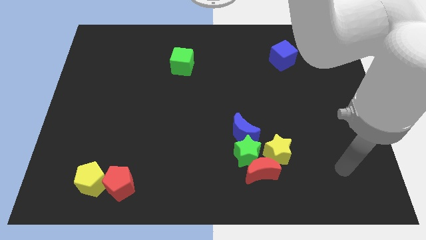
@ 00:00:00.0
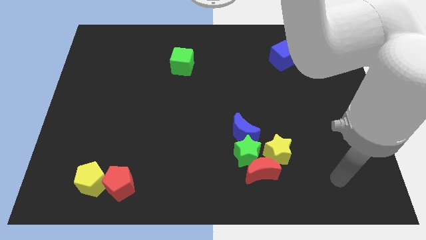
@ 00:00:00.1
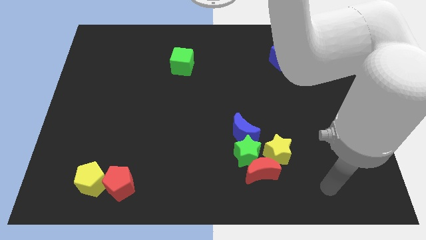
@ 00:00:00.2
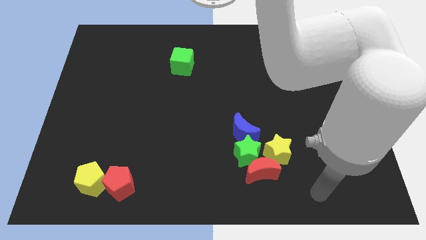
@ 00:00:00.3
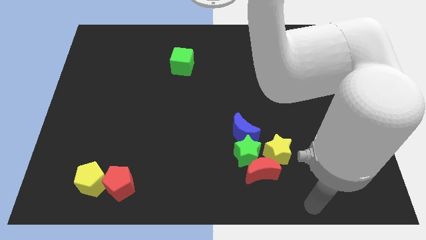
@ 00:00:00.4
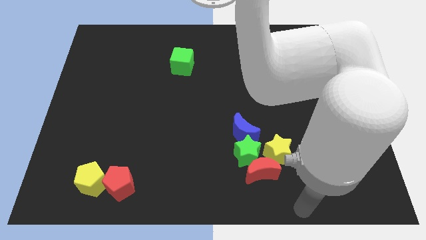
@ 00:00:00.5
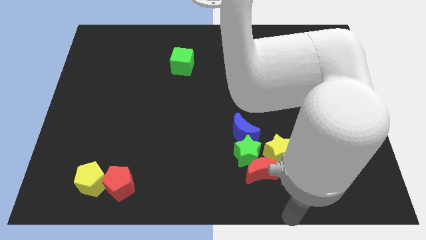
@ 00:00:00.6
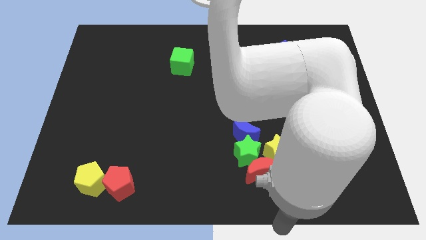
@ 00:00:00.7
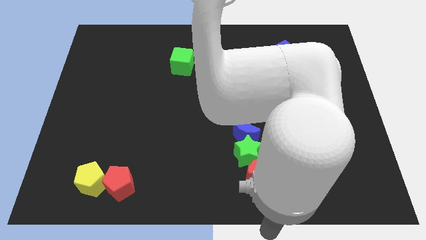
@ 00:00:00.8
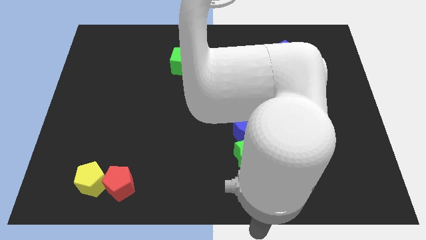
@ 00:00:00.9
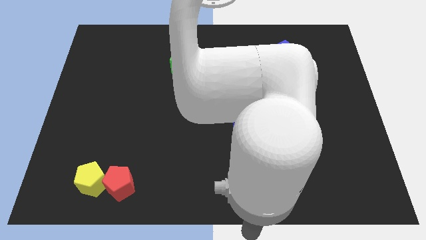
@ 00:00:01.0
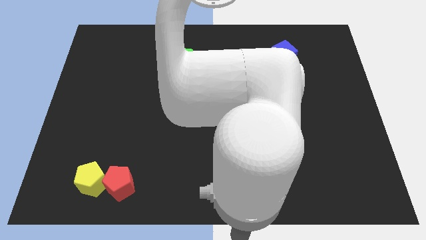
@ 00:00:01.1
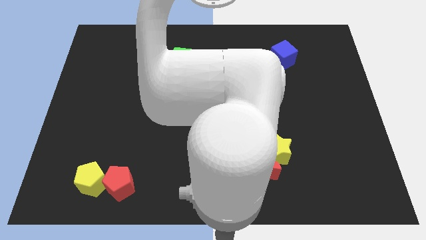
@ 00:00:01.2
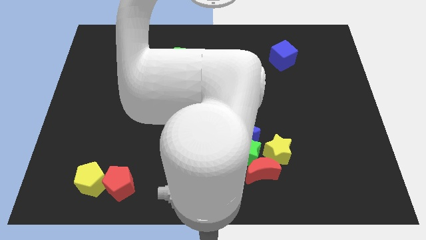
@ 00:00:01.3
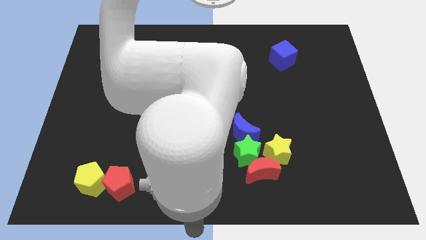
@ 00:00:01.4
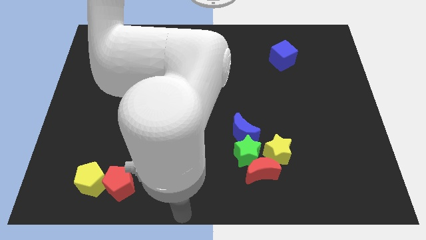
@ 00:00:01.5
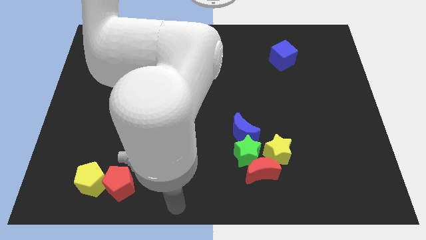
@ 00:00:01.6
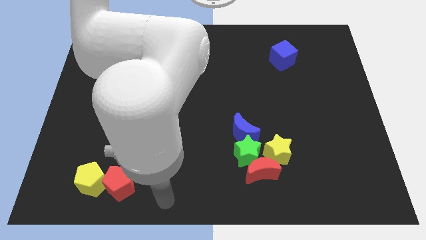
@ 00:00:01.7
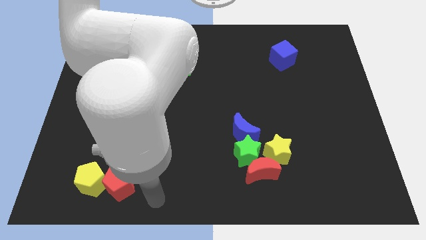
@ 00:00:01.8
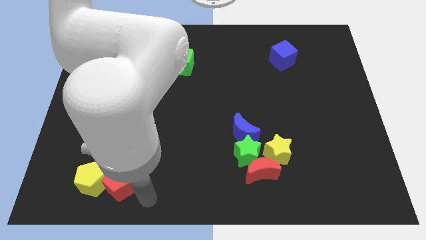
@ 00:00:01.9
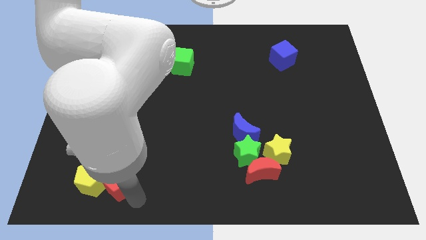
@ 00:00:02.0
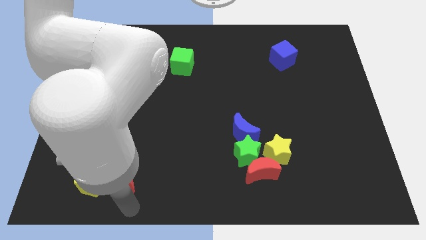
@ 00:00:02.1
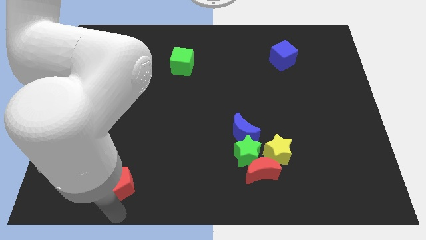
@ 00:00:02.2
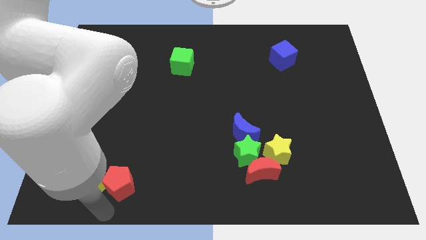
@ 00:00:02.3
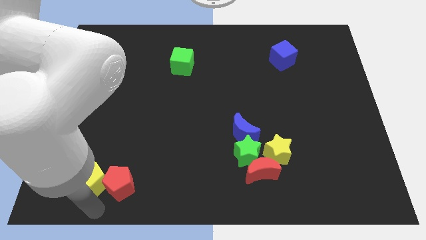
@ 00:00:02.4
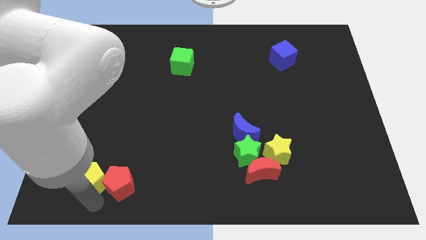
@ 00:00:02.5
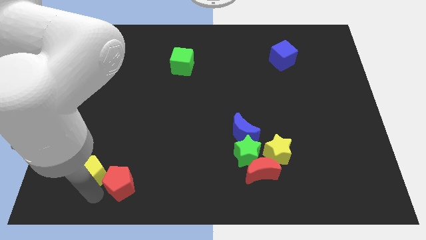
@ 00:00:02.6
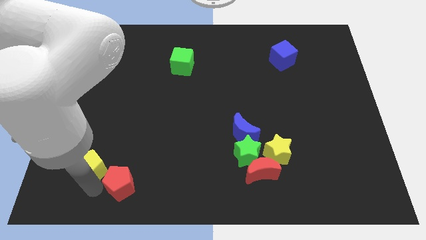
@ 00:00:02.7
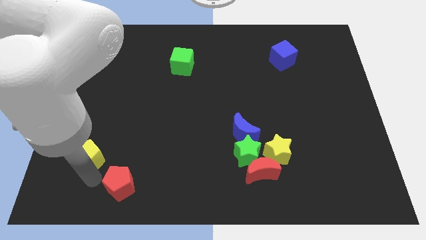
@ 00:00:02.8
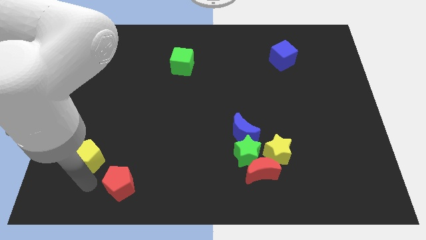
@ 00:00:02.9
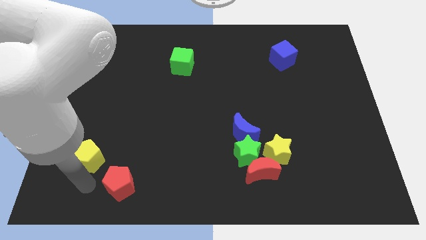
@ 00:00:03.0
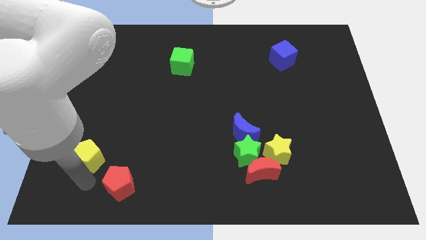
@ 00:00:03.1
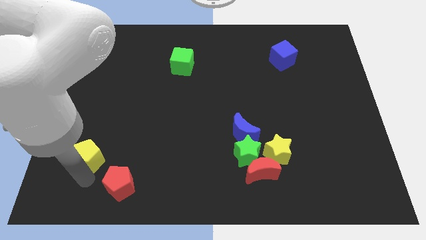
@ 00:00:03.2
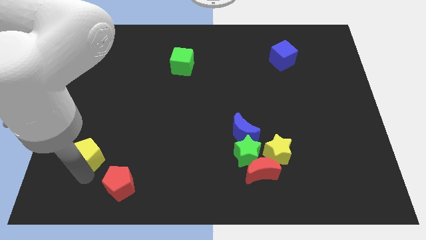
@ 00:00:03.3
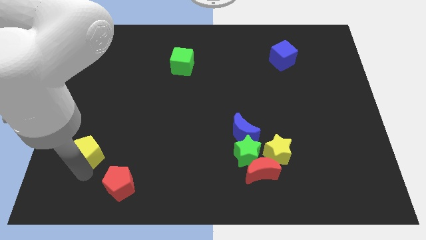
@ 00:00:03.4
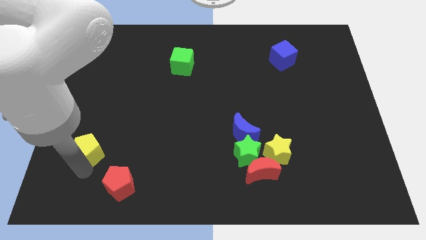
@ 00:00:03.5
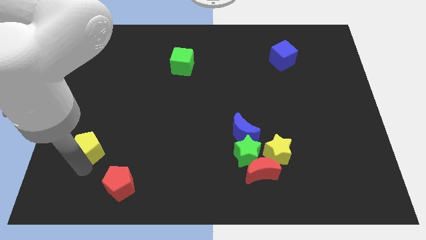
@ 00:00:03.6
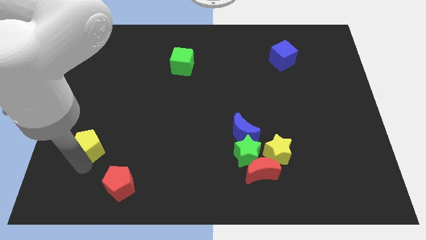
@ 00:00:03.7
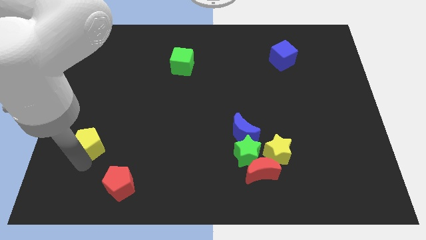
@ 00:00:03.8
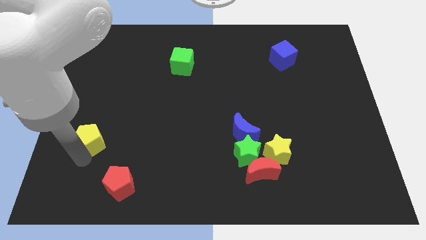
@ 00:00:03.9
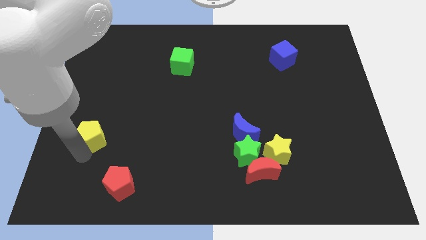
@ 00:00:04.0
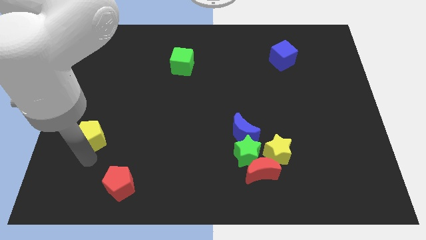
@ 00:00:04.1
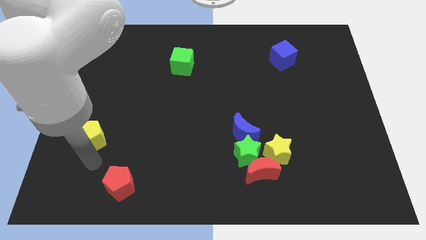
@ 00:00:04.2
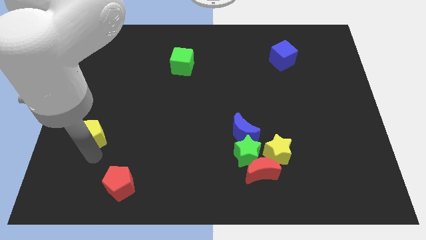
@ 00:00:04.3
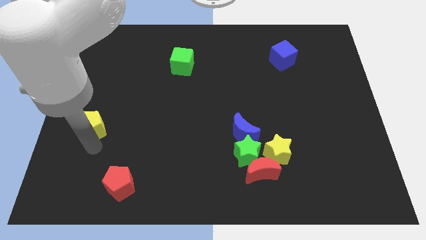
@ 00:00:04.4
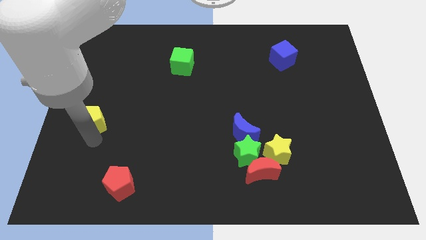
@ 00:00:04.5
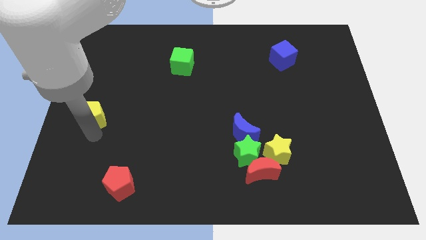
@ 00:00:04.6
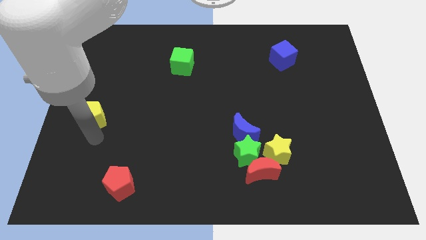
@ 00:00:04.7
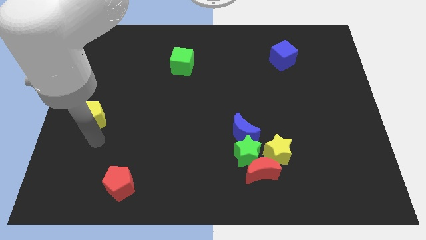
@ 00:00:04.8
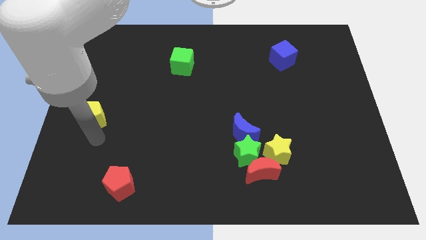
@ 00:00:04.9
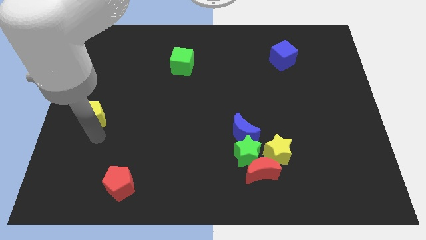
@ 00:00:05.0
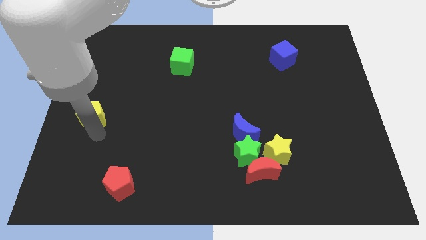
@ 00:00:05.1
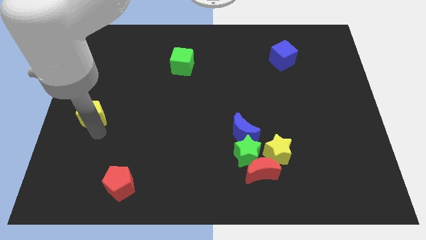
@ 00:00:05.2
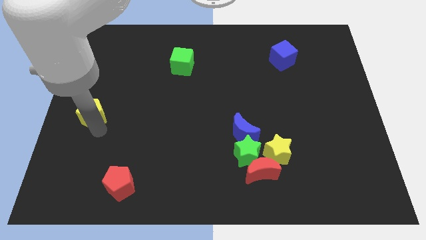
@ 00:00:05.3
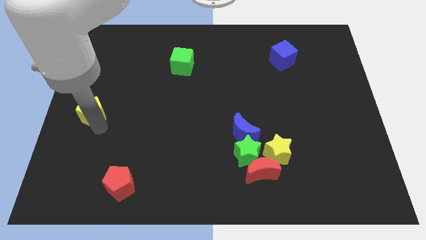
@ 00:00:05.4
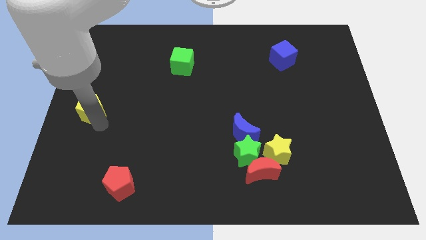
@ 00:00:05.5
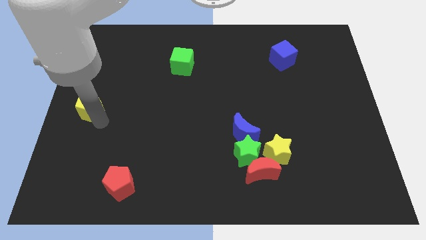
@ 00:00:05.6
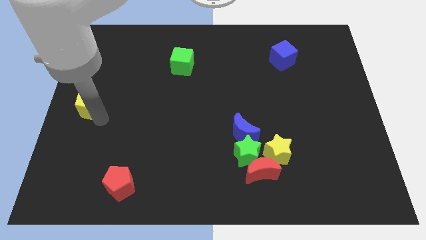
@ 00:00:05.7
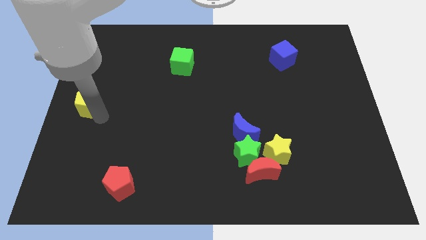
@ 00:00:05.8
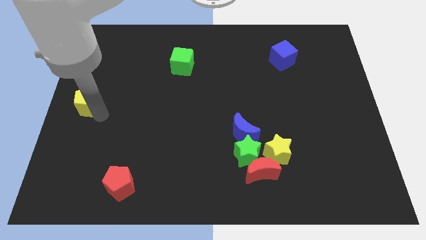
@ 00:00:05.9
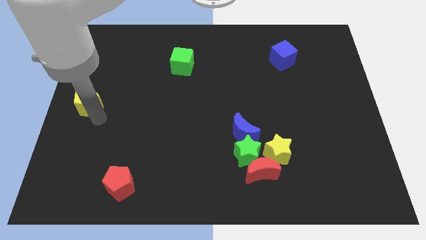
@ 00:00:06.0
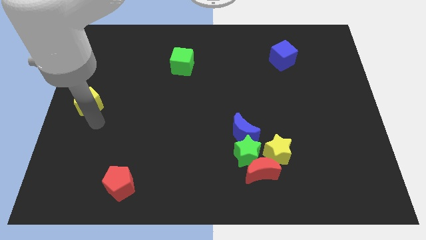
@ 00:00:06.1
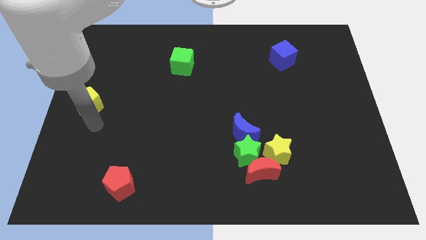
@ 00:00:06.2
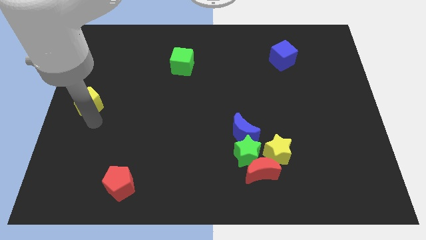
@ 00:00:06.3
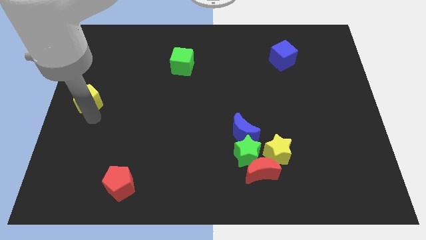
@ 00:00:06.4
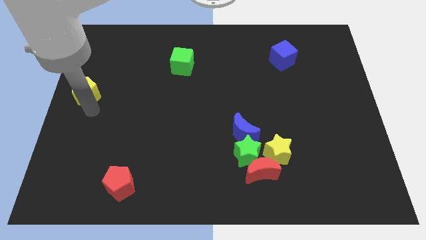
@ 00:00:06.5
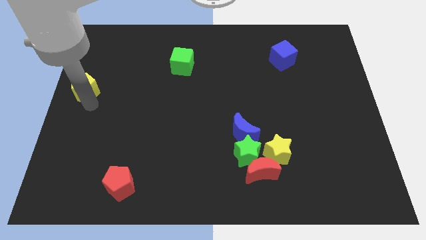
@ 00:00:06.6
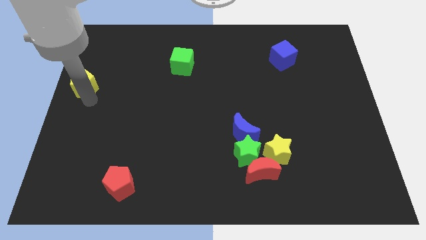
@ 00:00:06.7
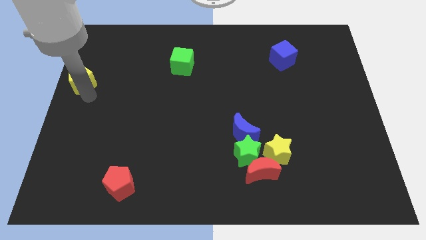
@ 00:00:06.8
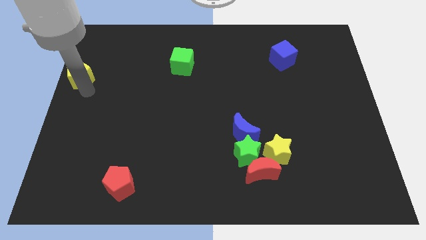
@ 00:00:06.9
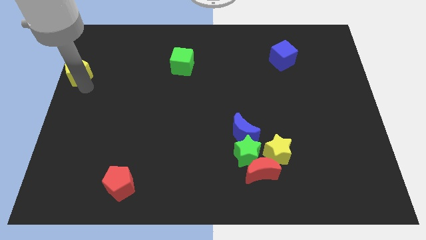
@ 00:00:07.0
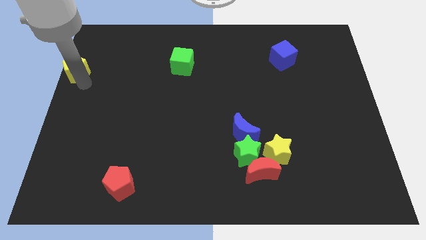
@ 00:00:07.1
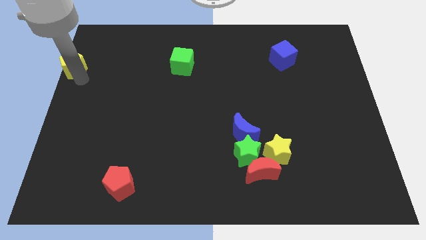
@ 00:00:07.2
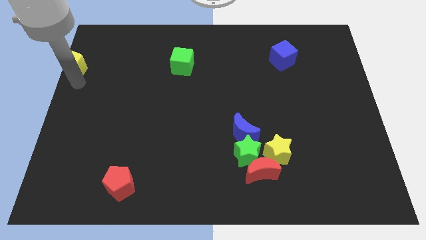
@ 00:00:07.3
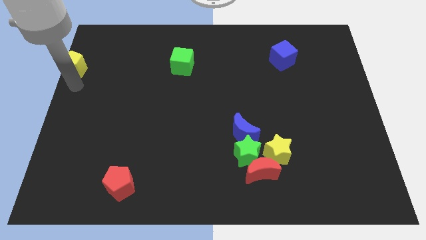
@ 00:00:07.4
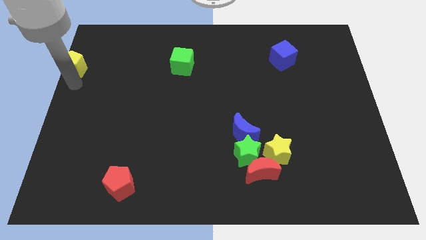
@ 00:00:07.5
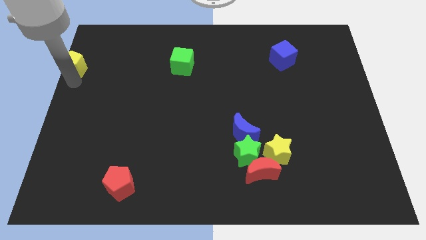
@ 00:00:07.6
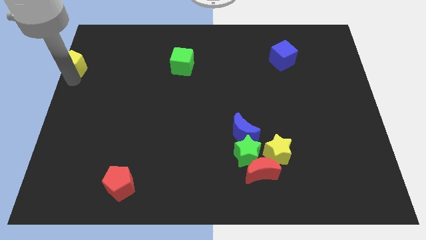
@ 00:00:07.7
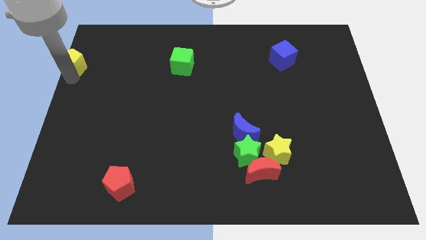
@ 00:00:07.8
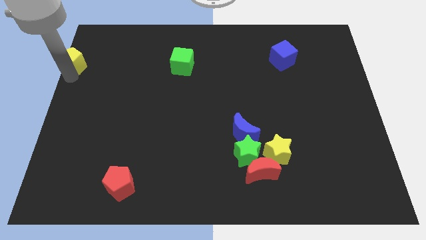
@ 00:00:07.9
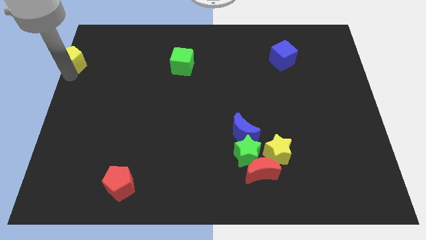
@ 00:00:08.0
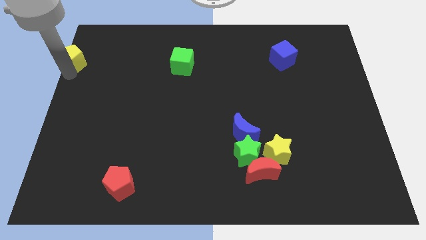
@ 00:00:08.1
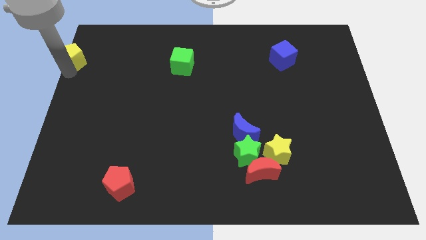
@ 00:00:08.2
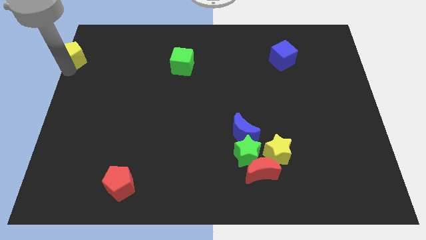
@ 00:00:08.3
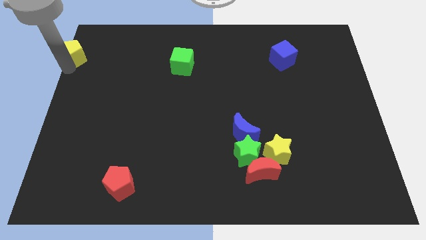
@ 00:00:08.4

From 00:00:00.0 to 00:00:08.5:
put the yellow pentagon to the top left corner
